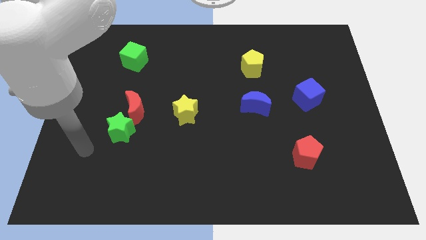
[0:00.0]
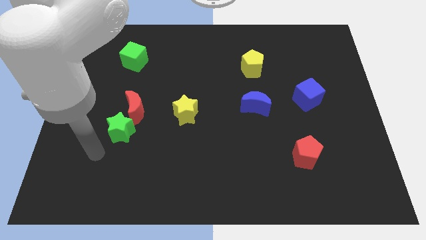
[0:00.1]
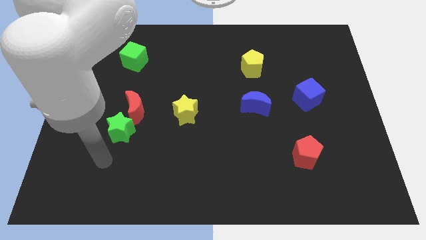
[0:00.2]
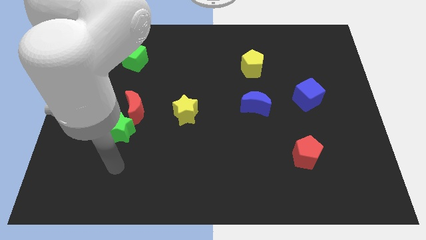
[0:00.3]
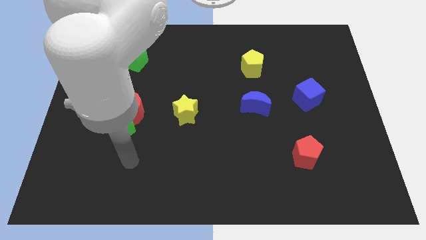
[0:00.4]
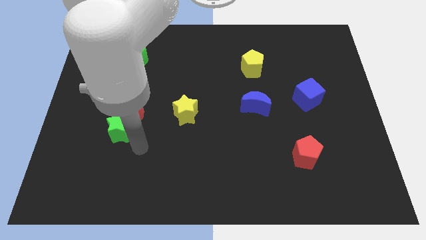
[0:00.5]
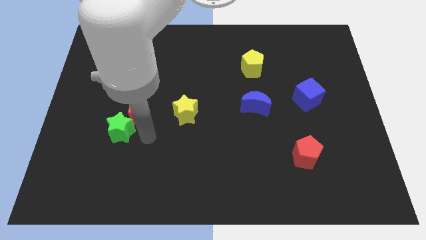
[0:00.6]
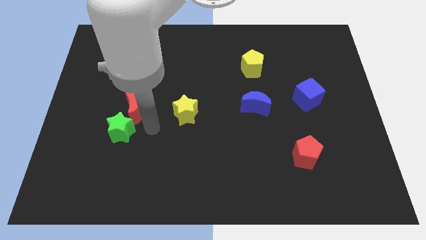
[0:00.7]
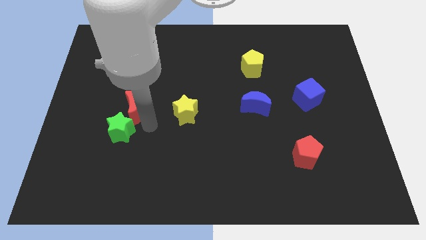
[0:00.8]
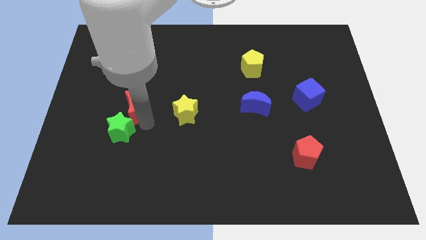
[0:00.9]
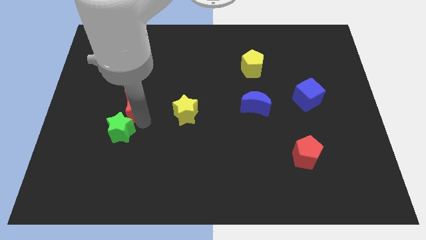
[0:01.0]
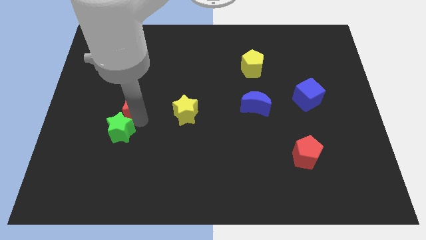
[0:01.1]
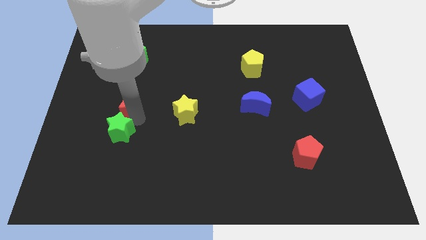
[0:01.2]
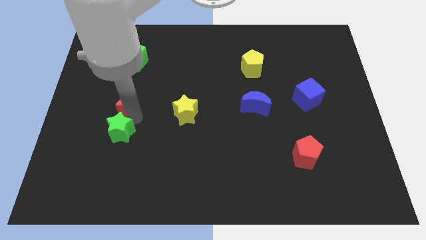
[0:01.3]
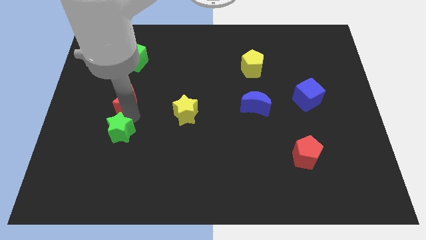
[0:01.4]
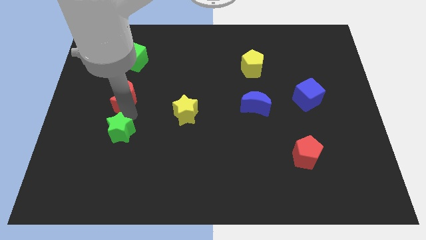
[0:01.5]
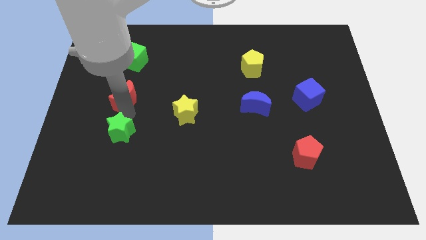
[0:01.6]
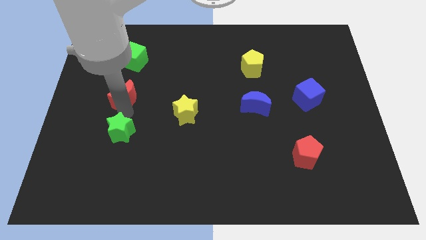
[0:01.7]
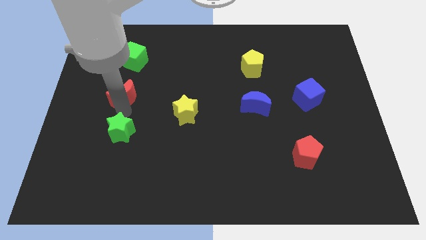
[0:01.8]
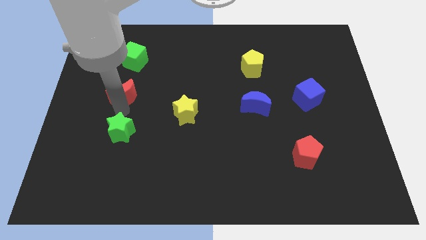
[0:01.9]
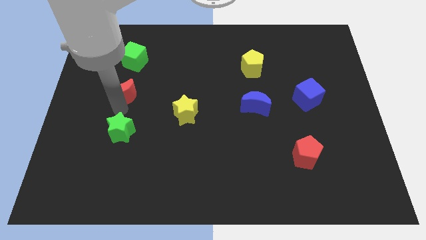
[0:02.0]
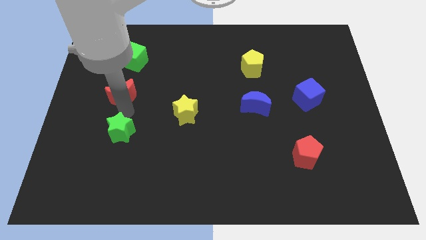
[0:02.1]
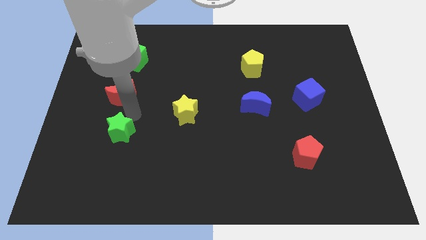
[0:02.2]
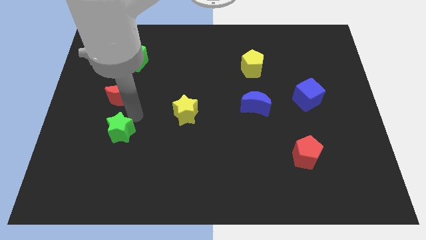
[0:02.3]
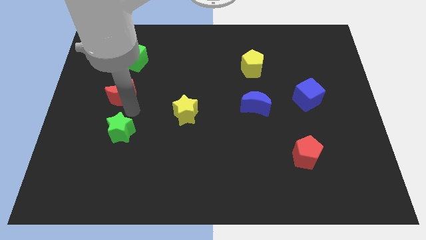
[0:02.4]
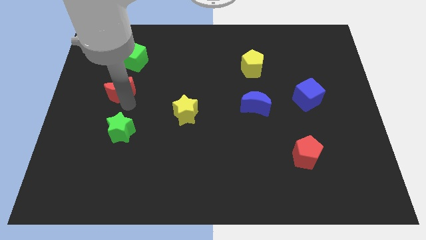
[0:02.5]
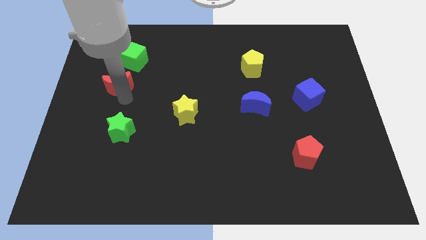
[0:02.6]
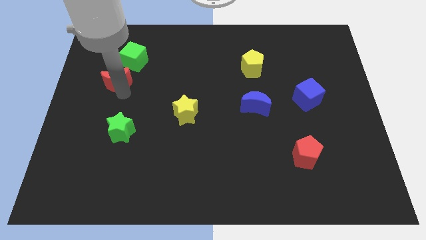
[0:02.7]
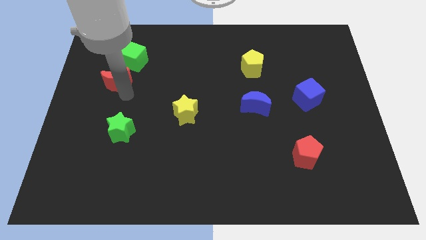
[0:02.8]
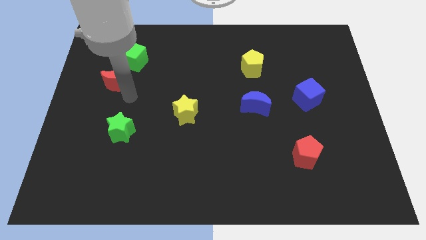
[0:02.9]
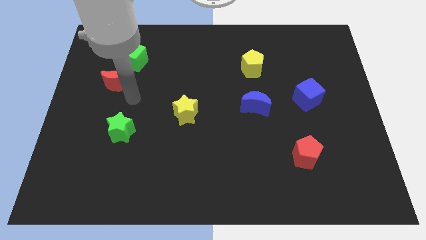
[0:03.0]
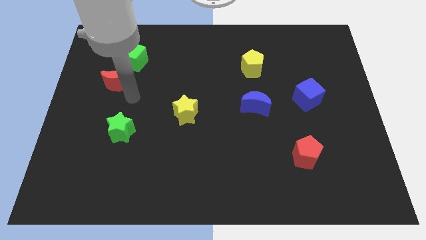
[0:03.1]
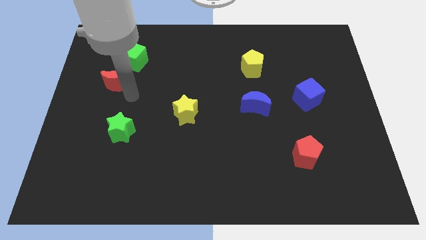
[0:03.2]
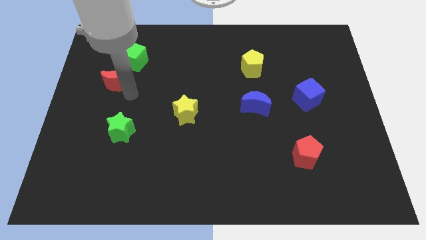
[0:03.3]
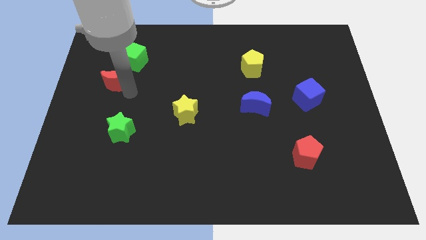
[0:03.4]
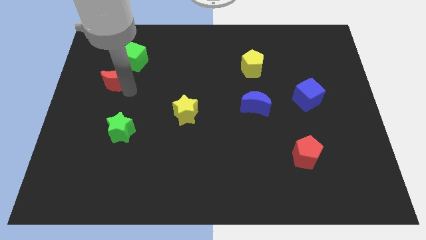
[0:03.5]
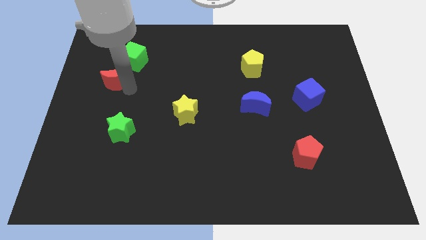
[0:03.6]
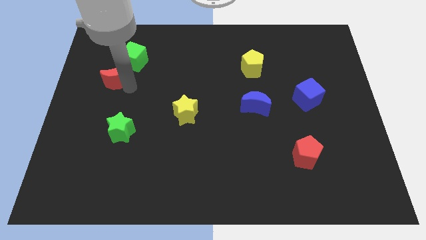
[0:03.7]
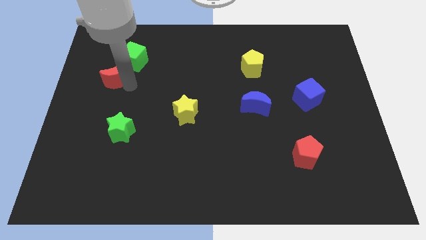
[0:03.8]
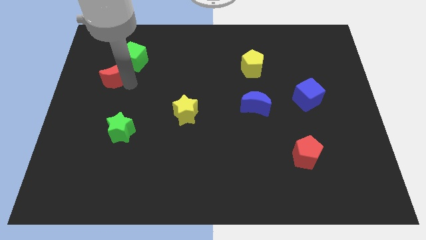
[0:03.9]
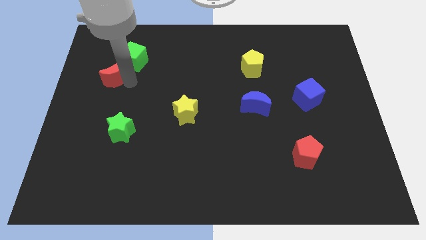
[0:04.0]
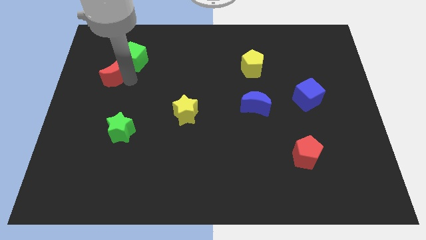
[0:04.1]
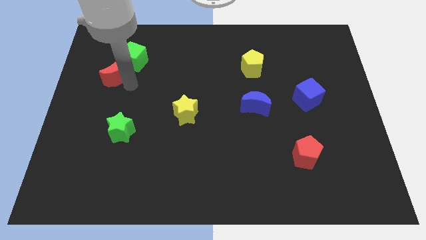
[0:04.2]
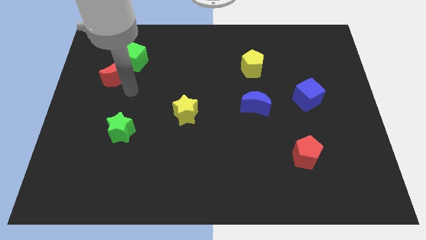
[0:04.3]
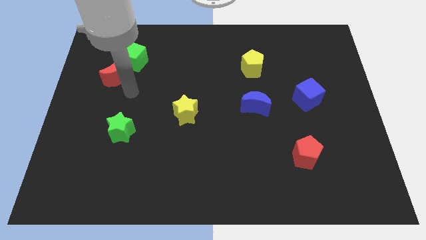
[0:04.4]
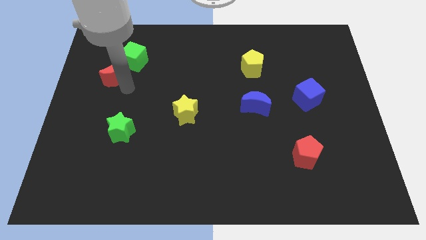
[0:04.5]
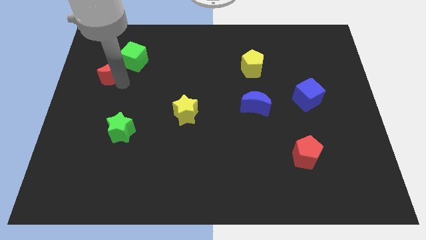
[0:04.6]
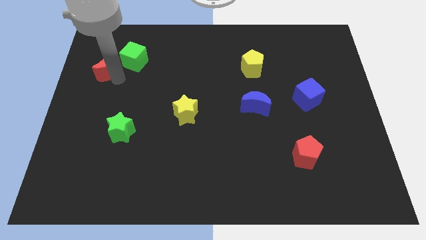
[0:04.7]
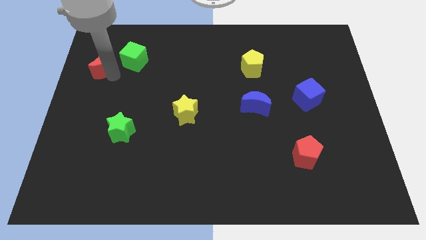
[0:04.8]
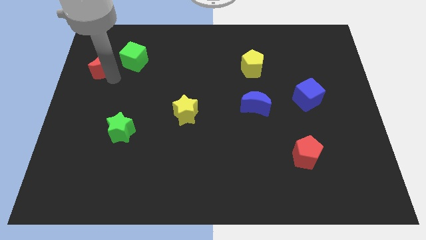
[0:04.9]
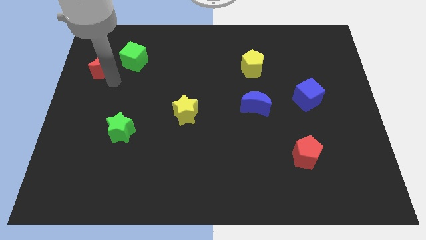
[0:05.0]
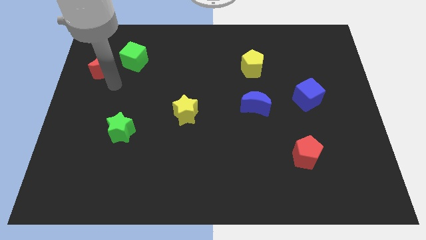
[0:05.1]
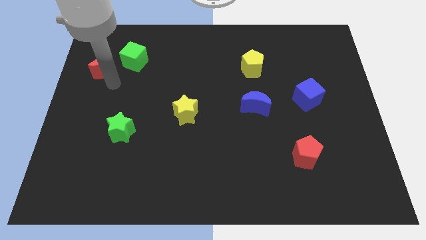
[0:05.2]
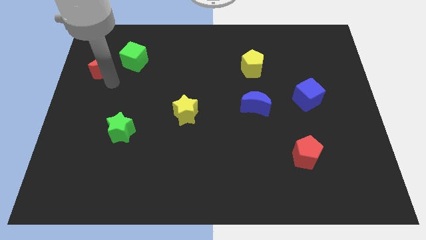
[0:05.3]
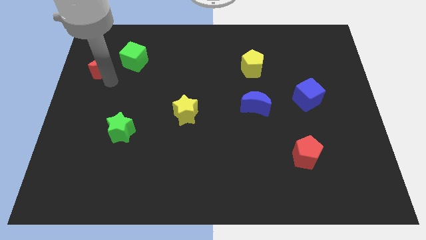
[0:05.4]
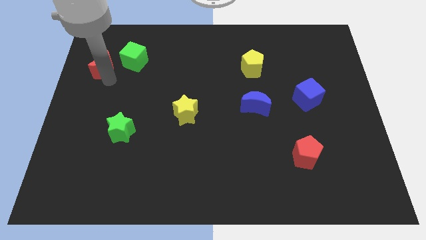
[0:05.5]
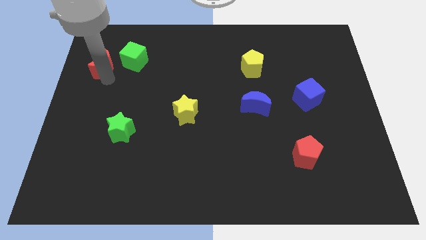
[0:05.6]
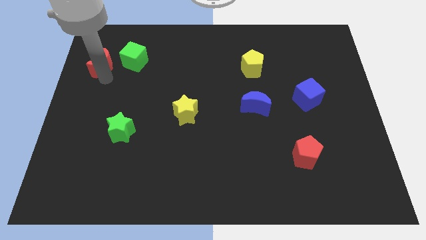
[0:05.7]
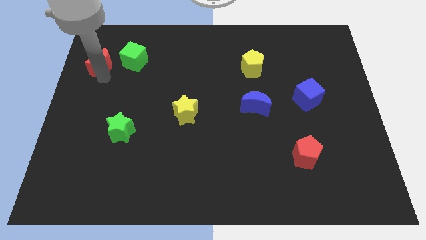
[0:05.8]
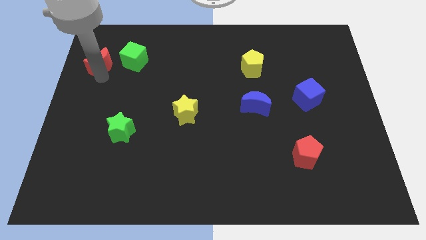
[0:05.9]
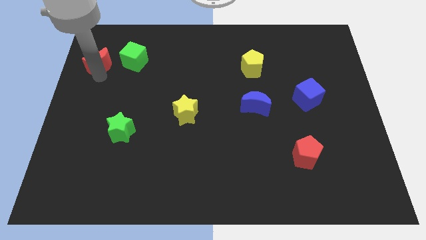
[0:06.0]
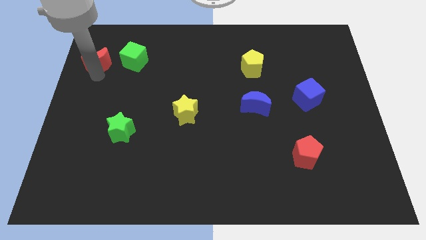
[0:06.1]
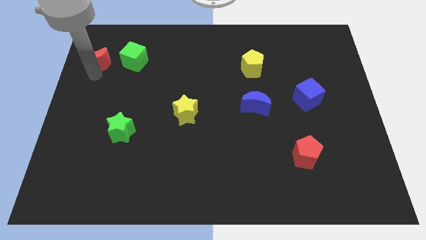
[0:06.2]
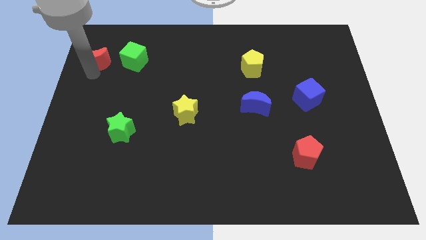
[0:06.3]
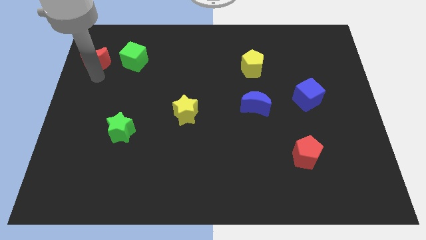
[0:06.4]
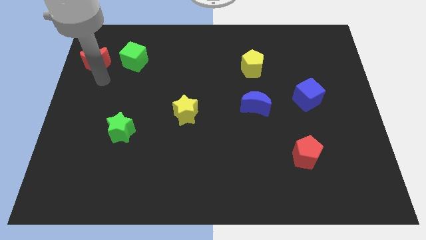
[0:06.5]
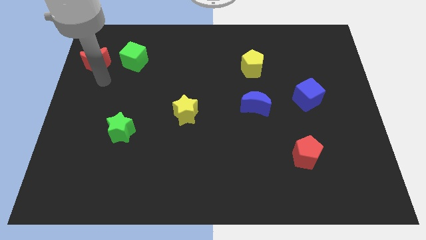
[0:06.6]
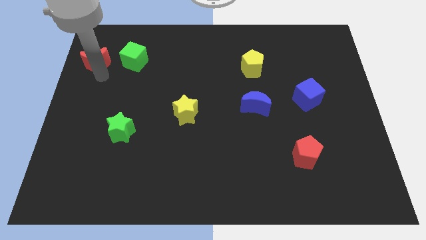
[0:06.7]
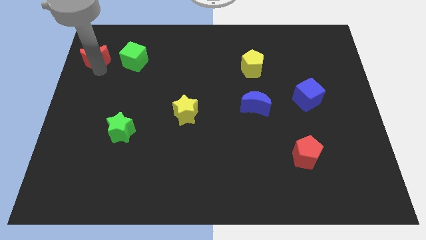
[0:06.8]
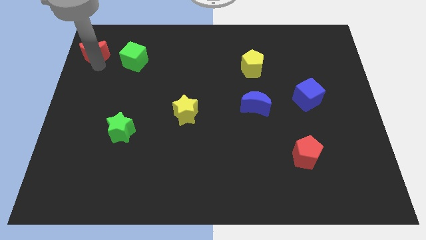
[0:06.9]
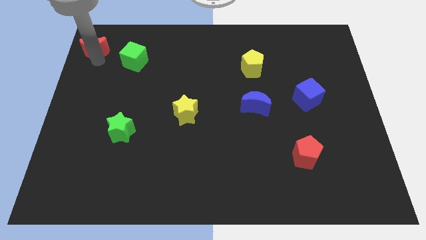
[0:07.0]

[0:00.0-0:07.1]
push the red moon to the upper left corner

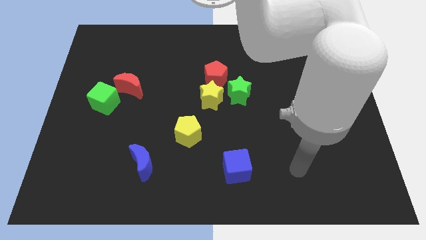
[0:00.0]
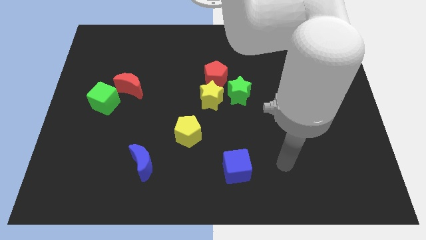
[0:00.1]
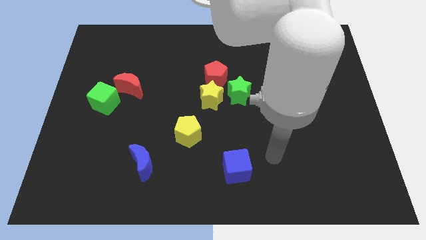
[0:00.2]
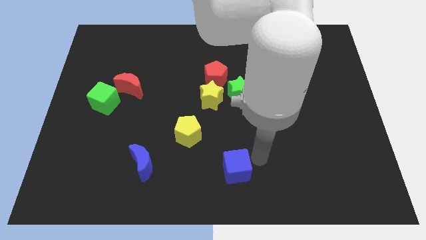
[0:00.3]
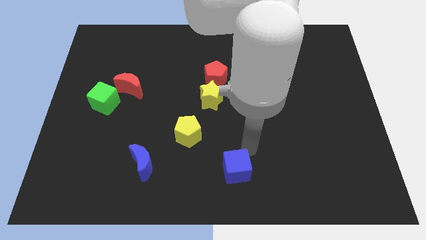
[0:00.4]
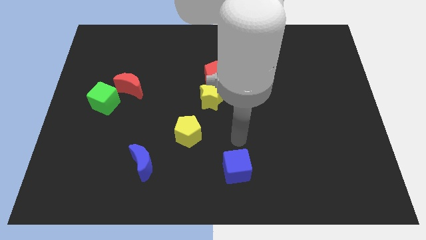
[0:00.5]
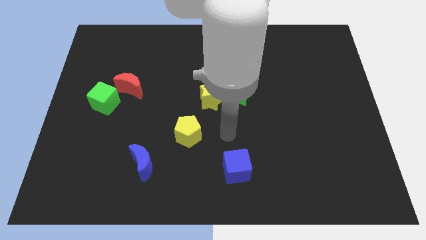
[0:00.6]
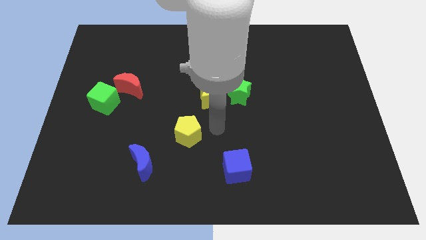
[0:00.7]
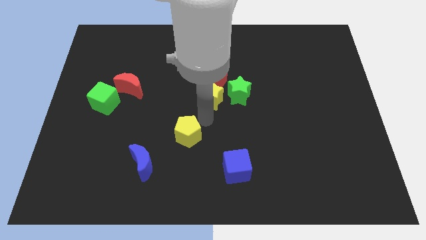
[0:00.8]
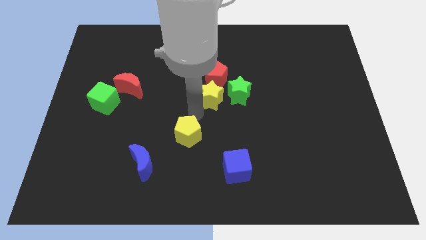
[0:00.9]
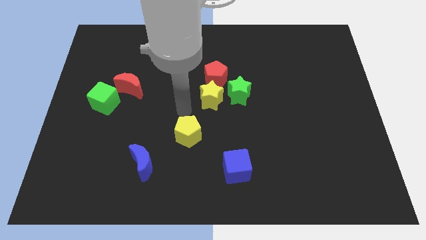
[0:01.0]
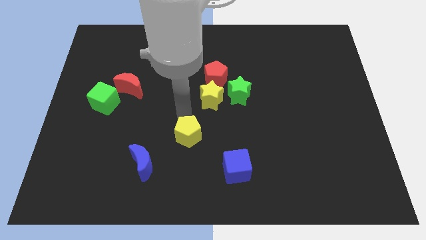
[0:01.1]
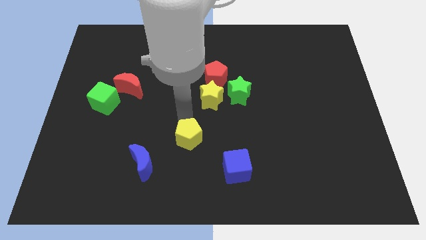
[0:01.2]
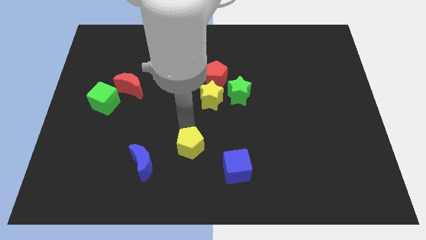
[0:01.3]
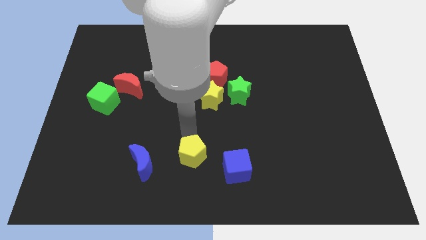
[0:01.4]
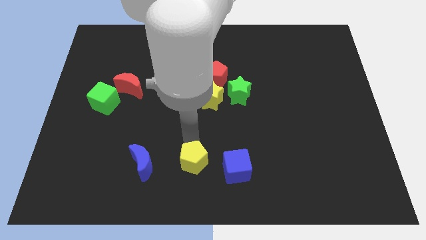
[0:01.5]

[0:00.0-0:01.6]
push the yellow pentagon to the bottom side
